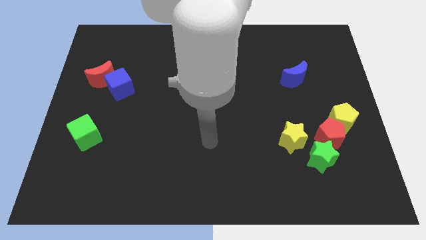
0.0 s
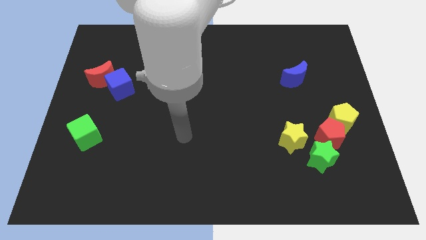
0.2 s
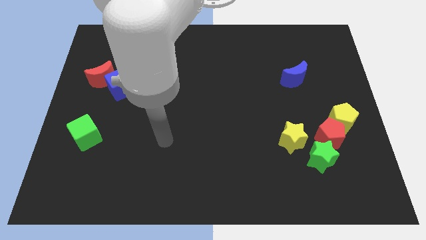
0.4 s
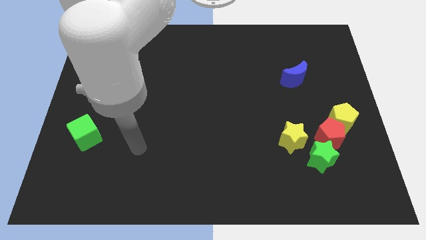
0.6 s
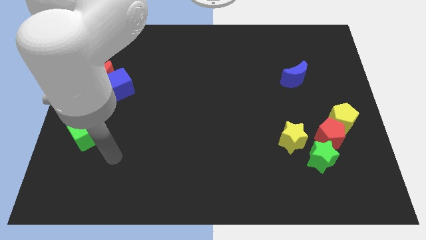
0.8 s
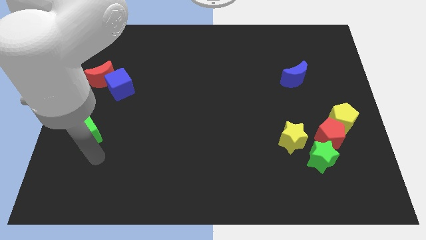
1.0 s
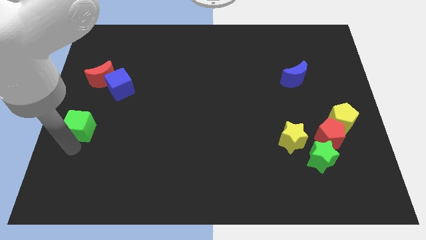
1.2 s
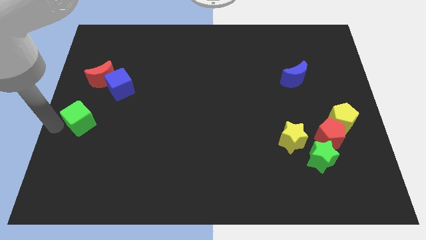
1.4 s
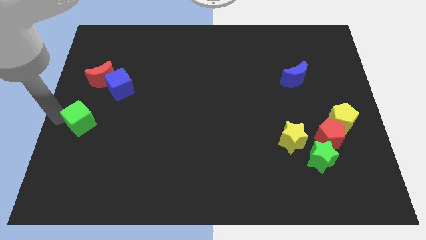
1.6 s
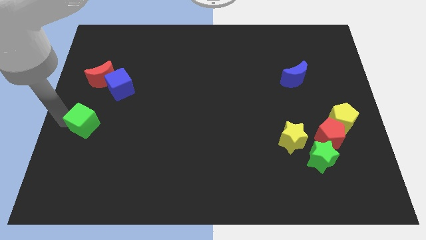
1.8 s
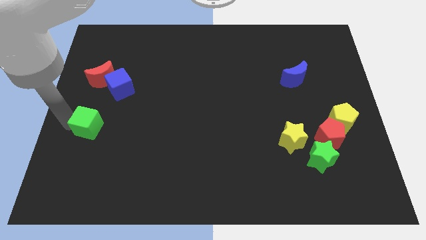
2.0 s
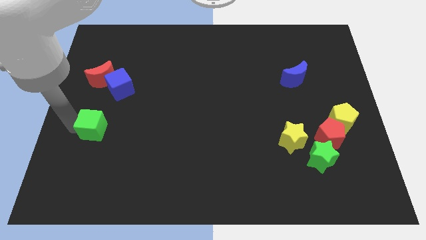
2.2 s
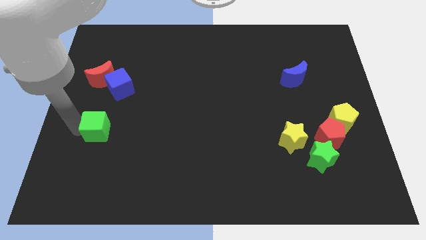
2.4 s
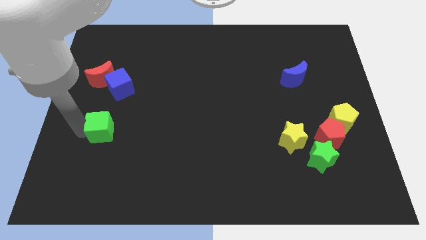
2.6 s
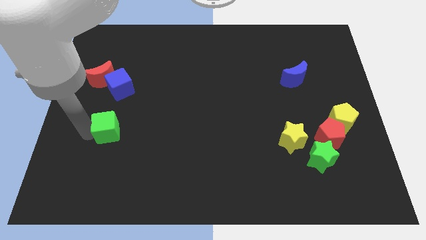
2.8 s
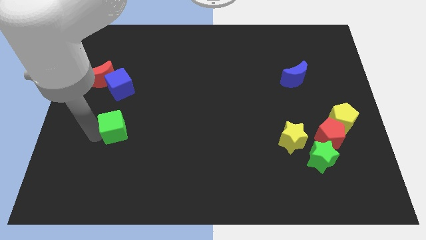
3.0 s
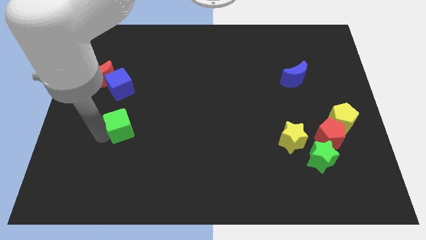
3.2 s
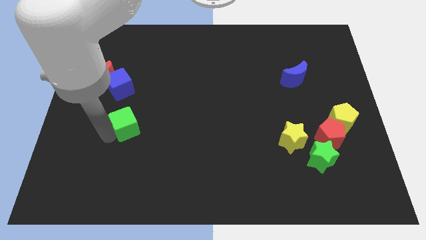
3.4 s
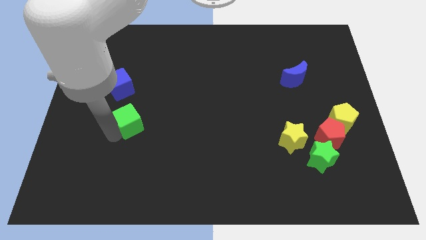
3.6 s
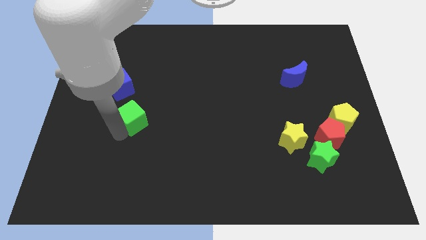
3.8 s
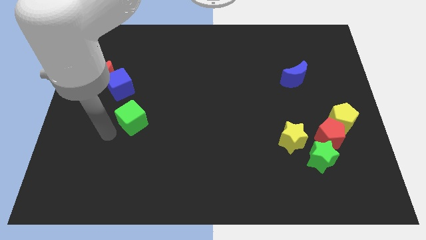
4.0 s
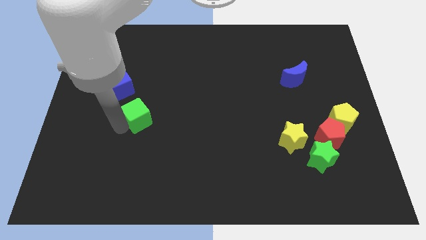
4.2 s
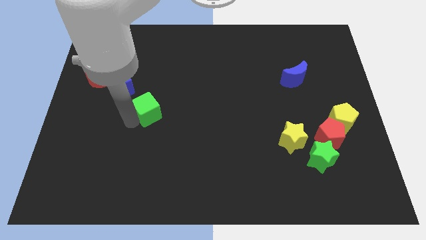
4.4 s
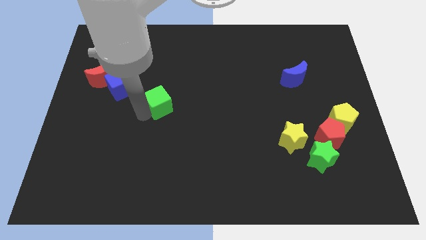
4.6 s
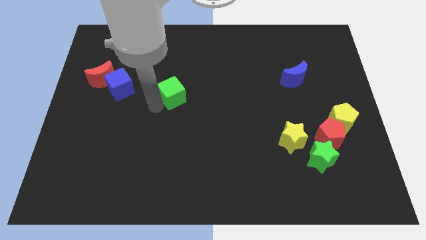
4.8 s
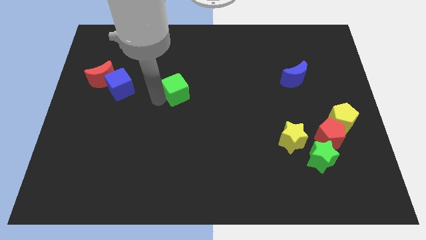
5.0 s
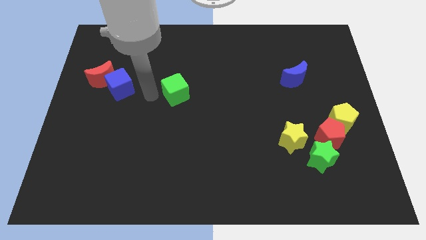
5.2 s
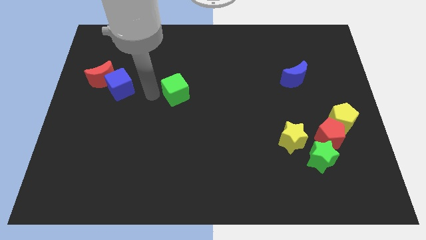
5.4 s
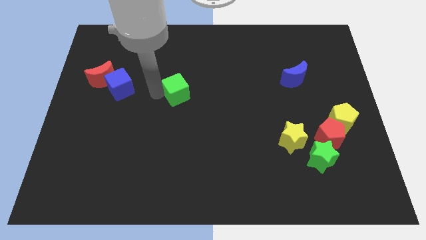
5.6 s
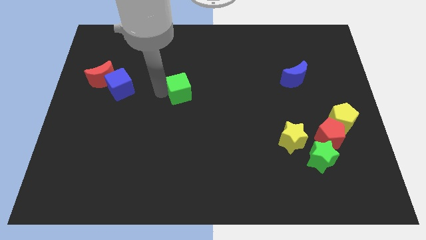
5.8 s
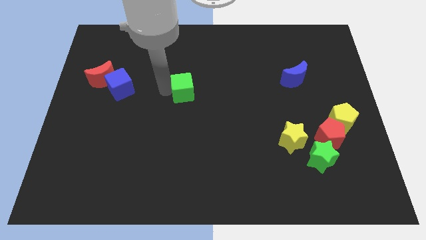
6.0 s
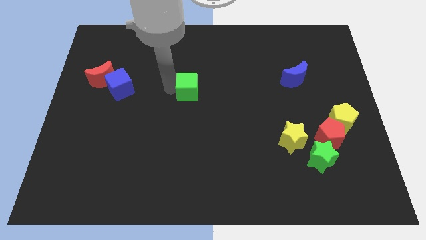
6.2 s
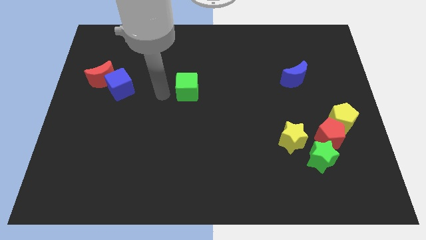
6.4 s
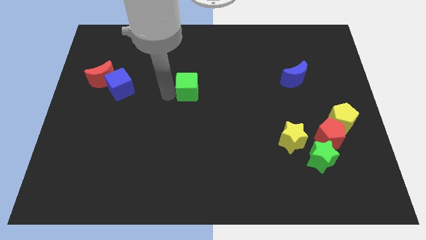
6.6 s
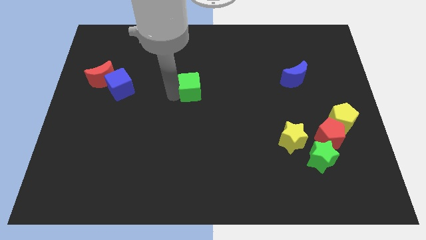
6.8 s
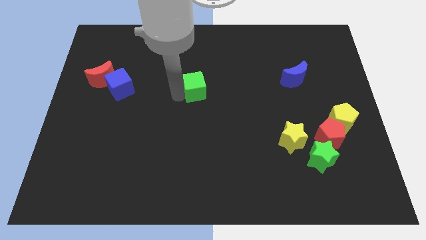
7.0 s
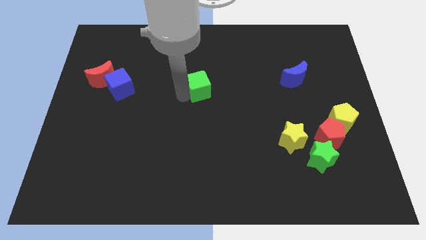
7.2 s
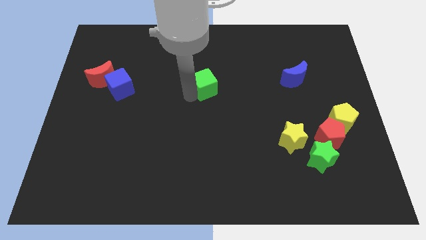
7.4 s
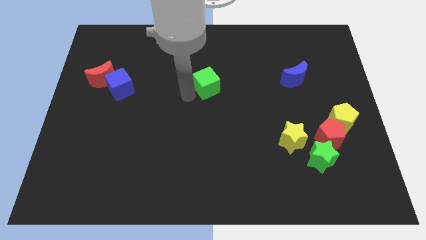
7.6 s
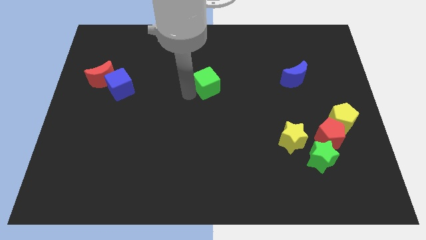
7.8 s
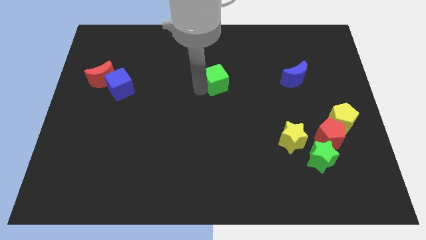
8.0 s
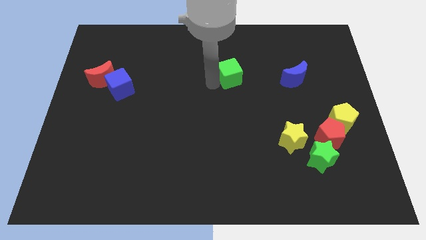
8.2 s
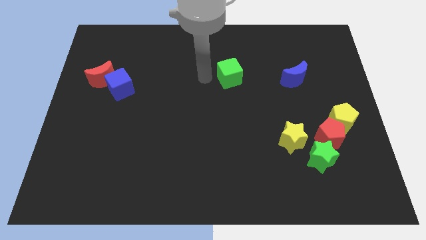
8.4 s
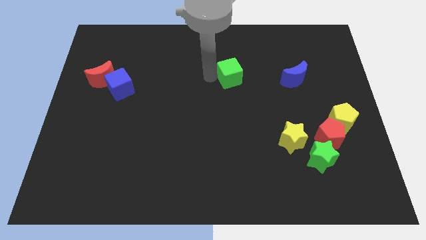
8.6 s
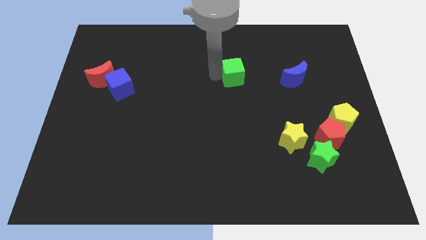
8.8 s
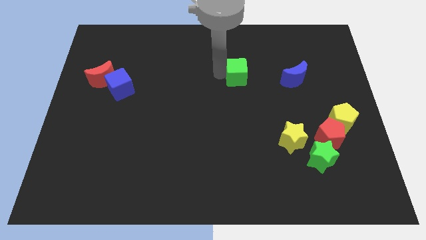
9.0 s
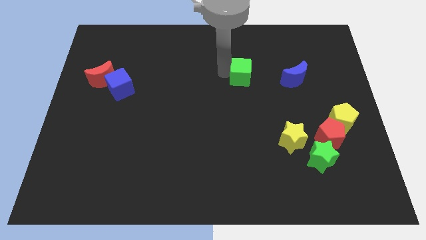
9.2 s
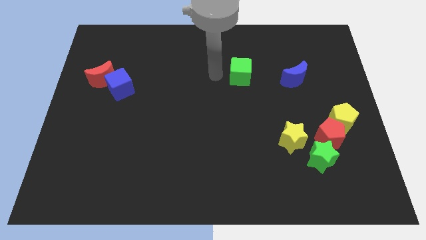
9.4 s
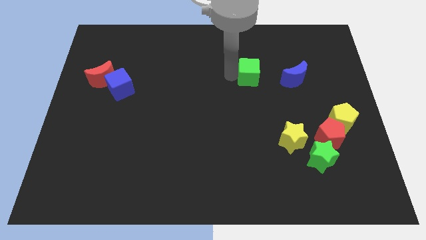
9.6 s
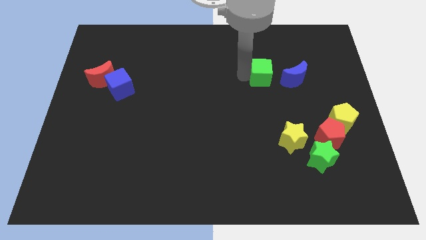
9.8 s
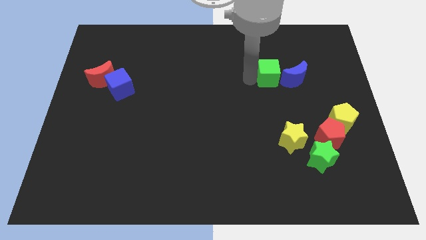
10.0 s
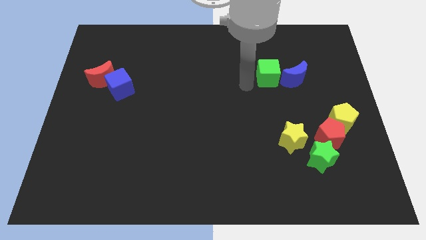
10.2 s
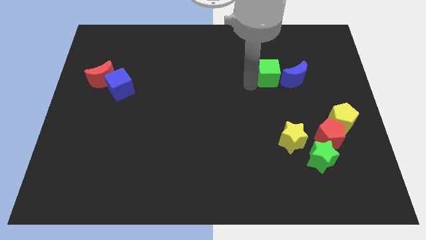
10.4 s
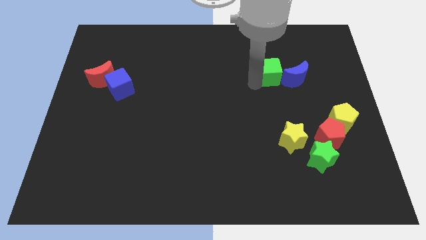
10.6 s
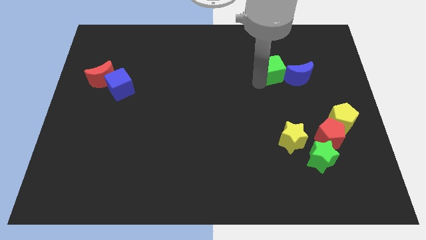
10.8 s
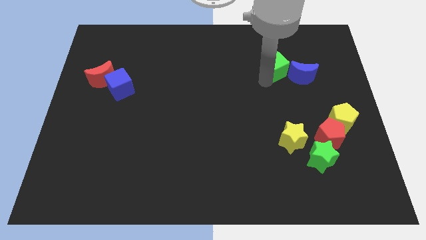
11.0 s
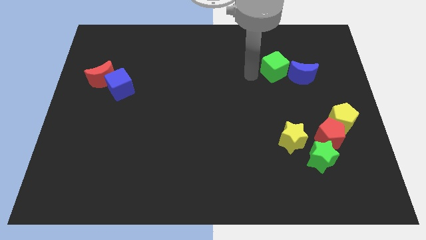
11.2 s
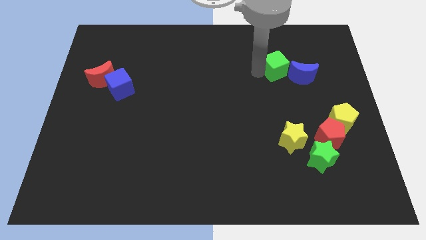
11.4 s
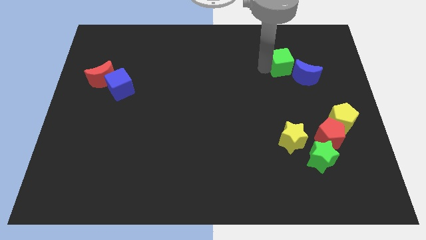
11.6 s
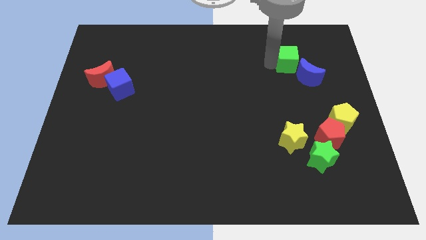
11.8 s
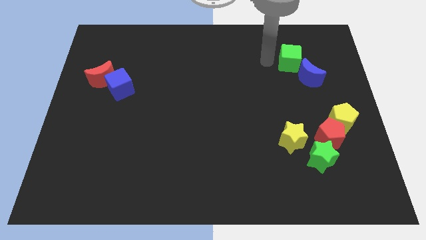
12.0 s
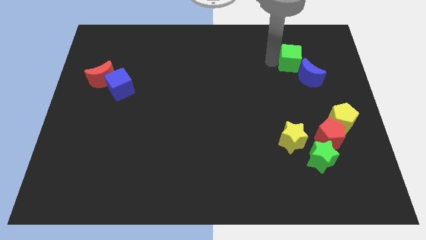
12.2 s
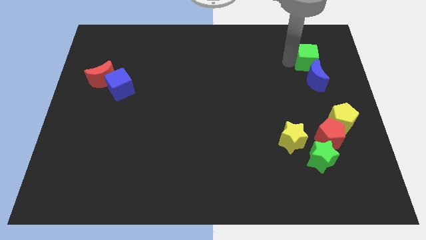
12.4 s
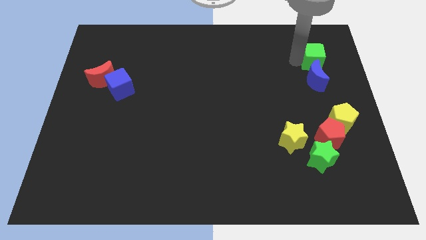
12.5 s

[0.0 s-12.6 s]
slide the green cube to the top right side of the blue moon
